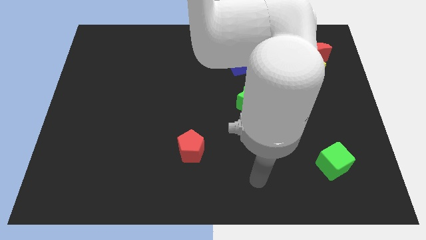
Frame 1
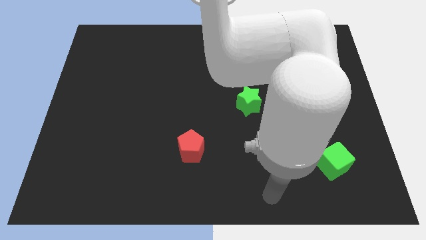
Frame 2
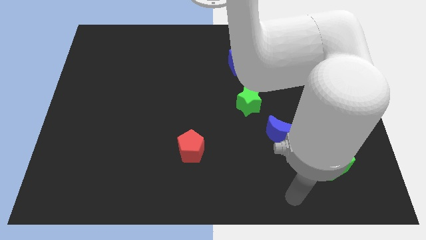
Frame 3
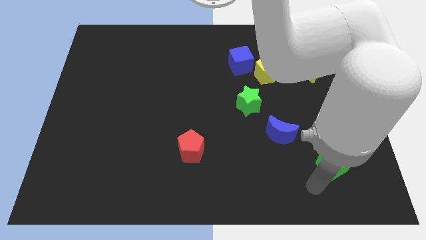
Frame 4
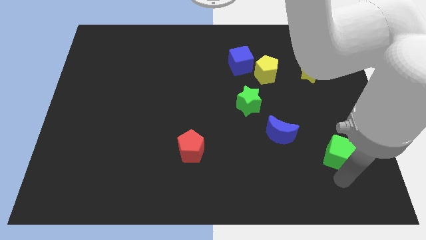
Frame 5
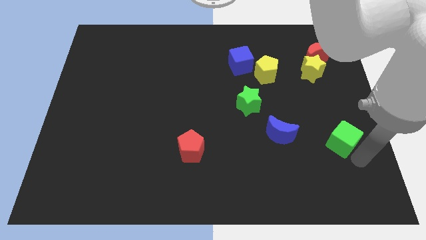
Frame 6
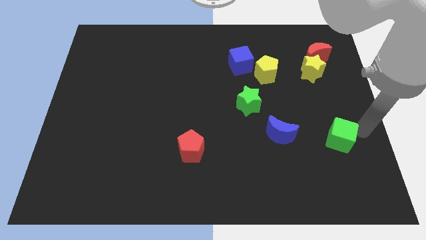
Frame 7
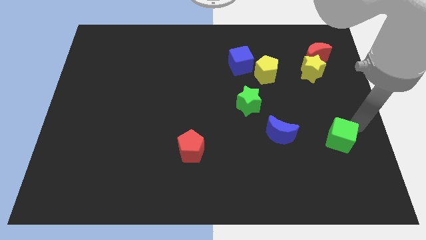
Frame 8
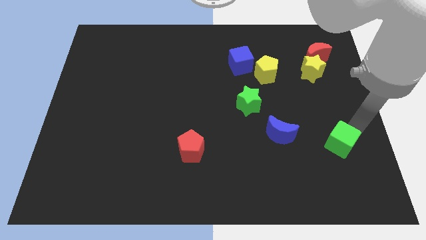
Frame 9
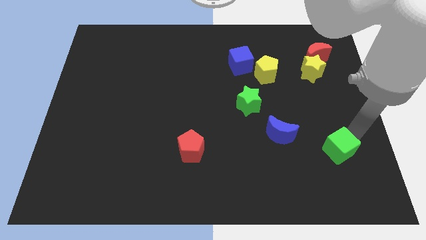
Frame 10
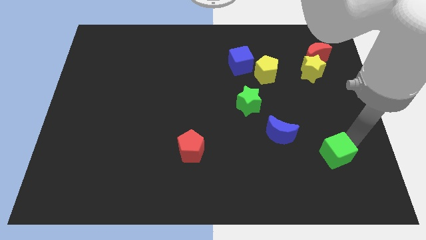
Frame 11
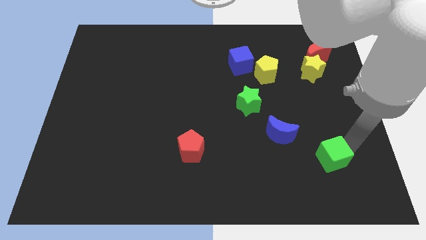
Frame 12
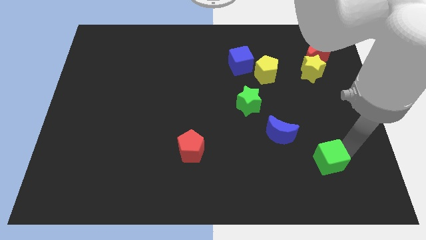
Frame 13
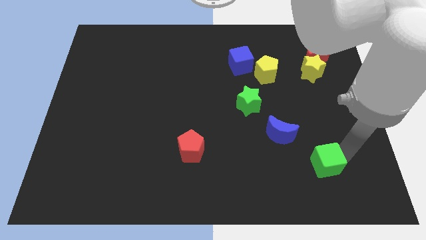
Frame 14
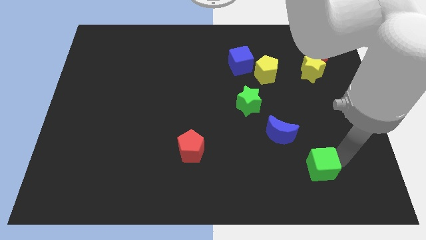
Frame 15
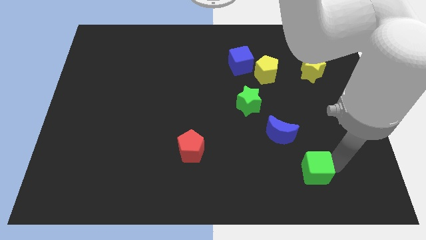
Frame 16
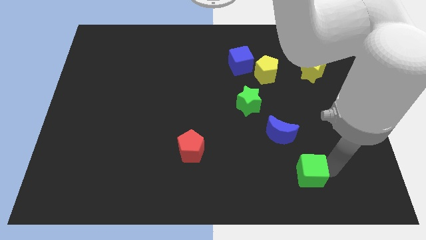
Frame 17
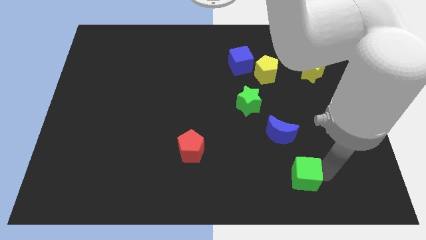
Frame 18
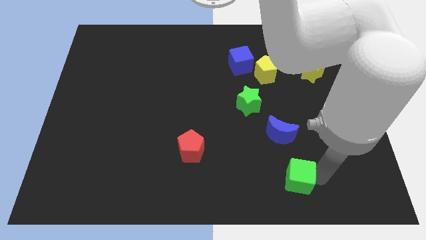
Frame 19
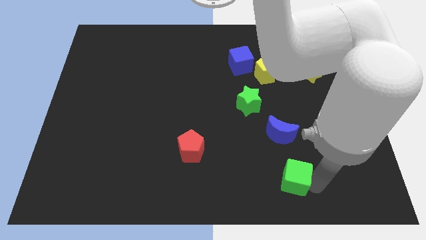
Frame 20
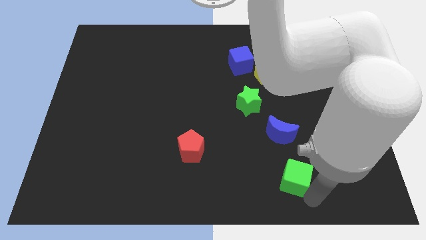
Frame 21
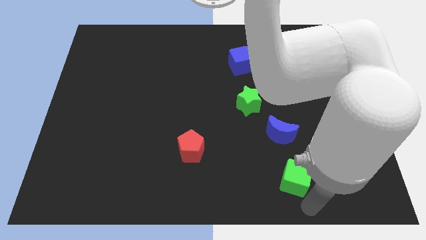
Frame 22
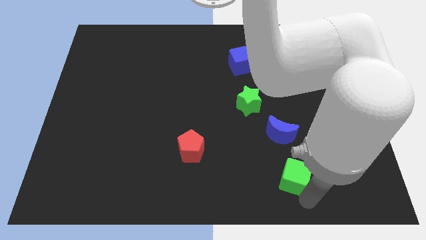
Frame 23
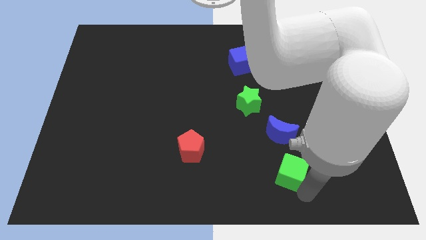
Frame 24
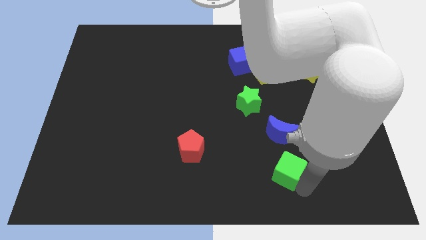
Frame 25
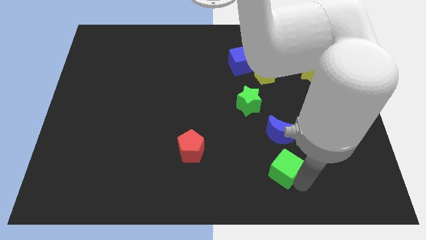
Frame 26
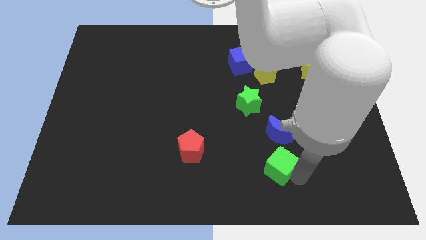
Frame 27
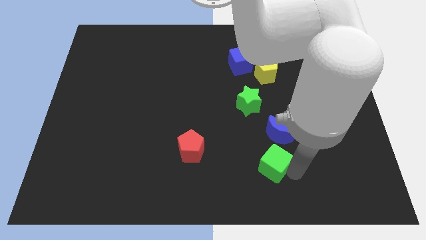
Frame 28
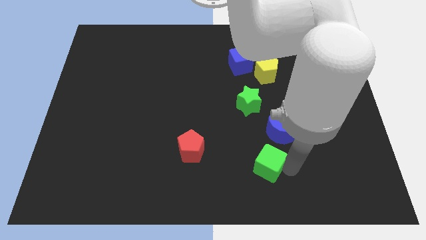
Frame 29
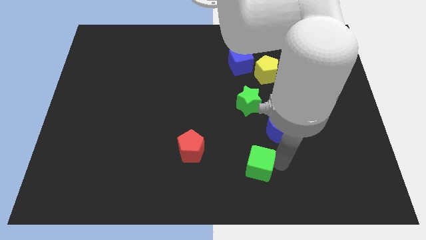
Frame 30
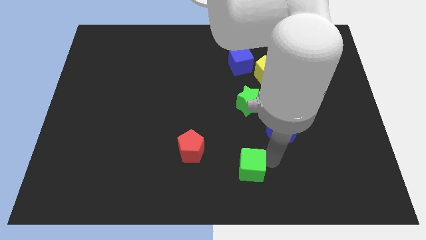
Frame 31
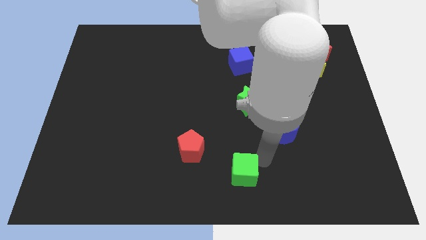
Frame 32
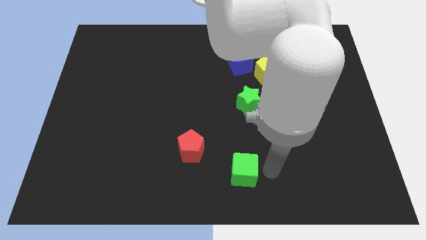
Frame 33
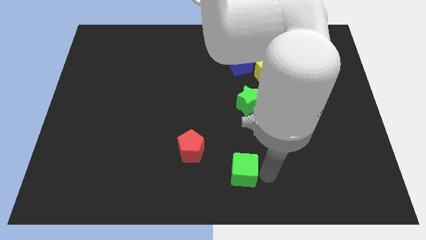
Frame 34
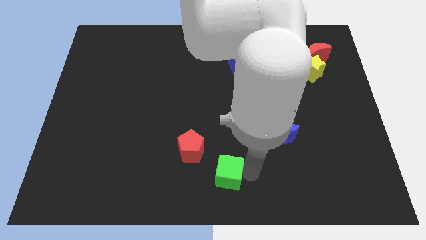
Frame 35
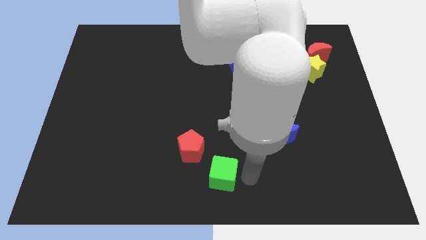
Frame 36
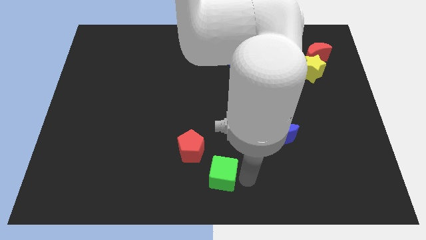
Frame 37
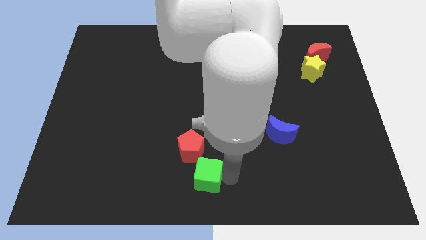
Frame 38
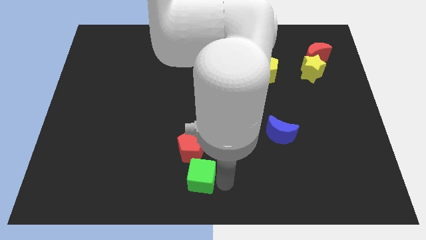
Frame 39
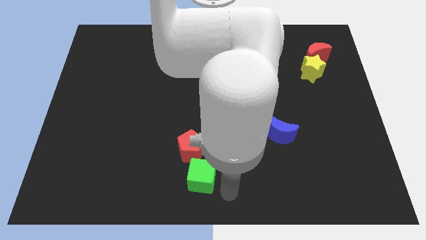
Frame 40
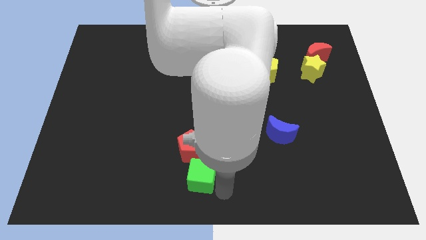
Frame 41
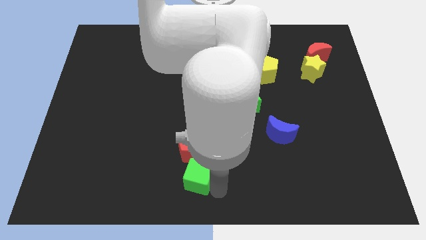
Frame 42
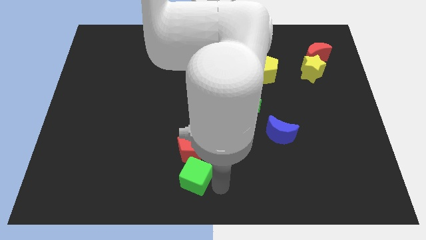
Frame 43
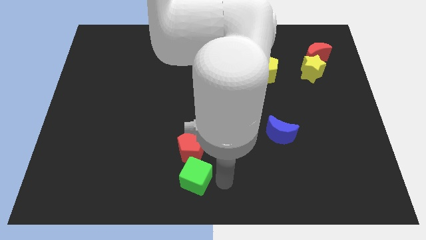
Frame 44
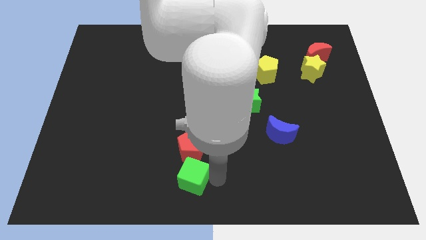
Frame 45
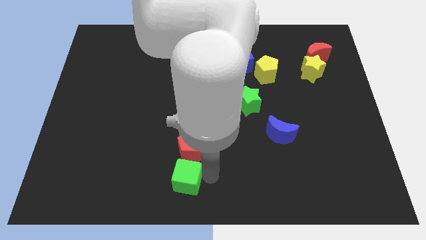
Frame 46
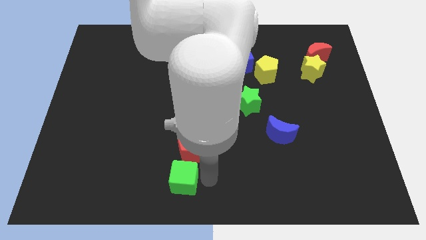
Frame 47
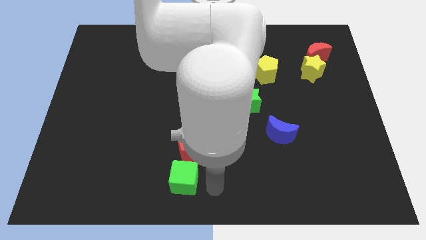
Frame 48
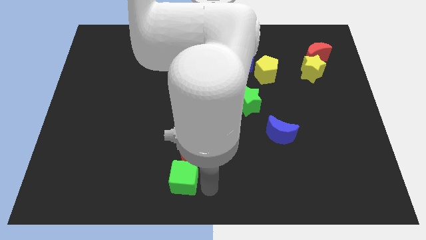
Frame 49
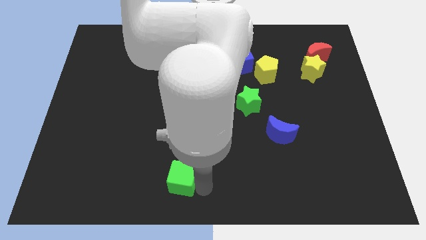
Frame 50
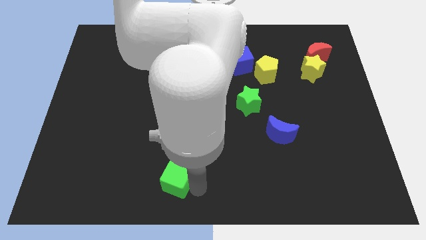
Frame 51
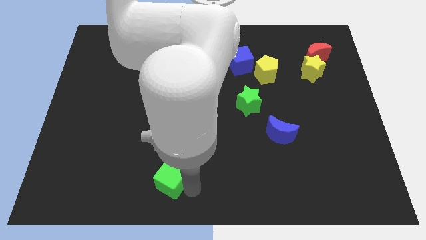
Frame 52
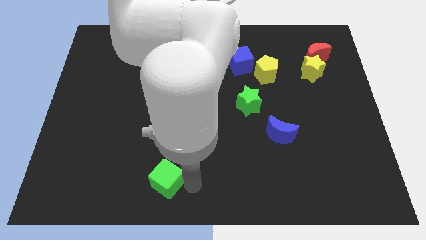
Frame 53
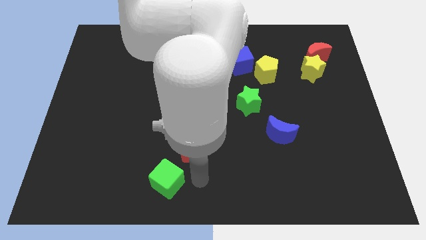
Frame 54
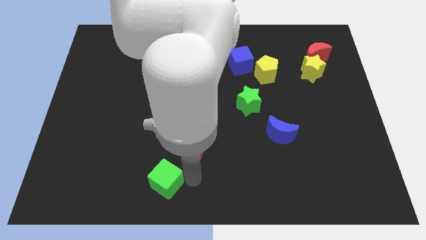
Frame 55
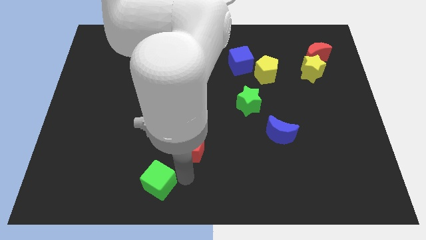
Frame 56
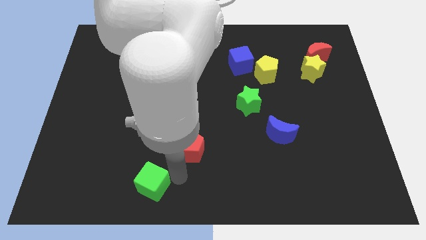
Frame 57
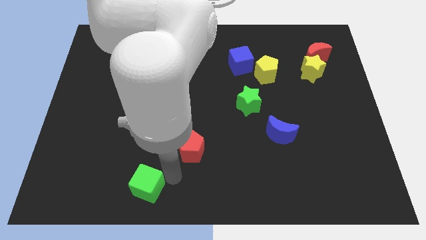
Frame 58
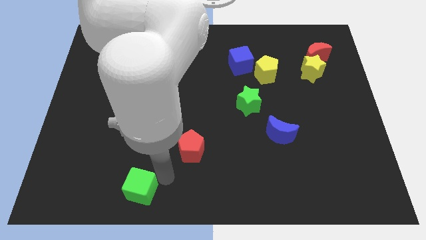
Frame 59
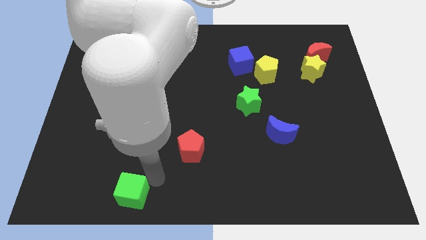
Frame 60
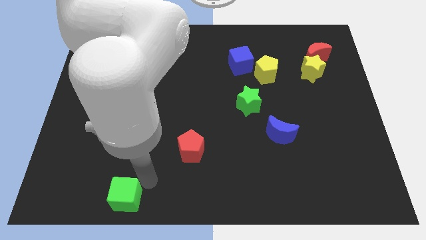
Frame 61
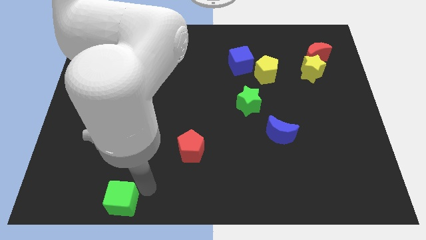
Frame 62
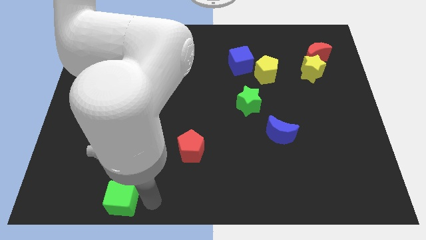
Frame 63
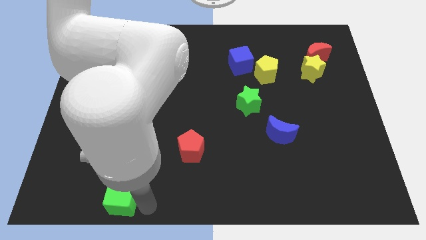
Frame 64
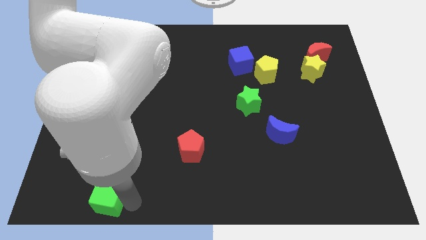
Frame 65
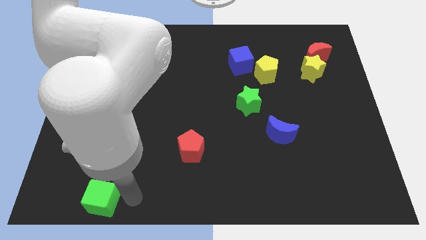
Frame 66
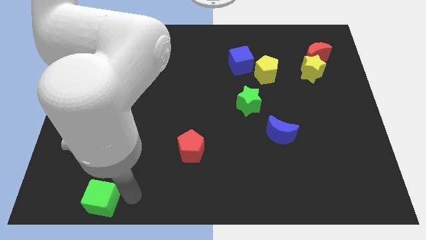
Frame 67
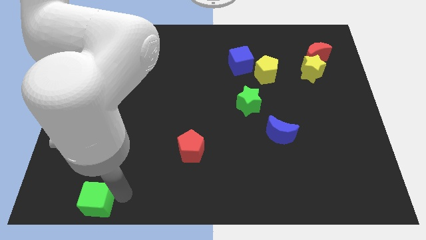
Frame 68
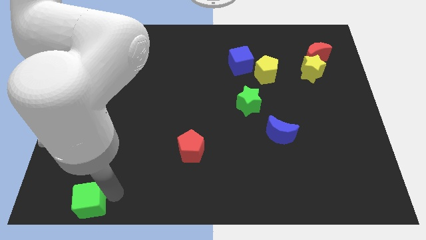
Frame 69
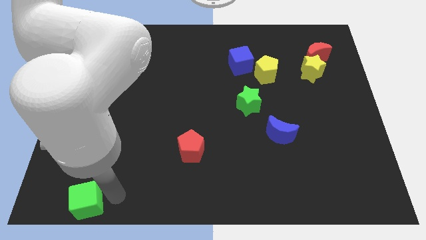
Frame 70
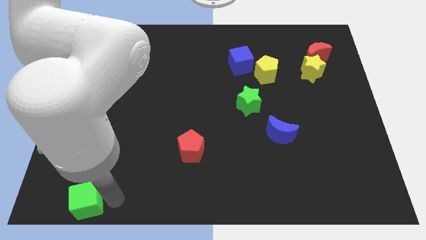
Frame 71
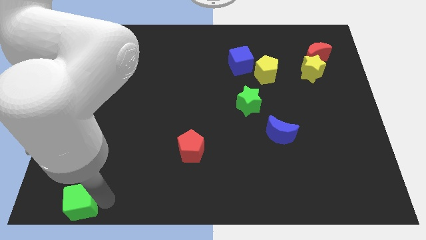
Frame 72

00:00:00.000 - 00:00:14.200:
put the green cube to the bottom left
